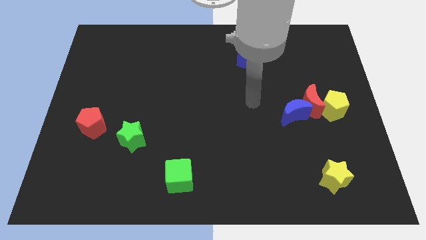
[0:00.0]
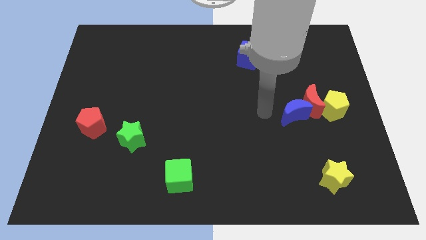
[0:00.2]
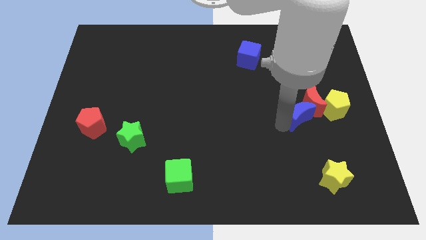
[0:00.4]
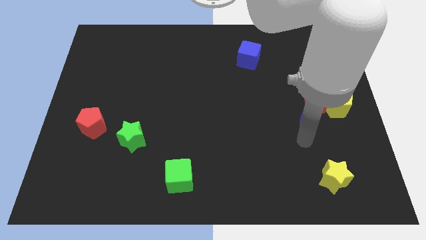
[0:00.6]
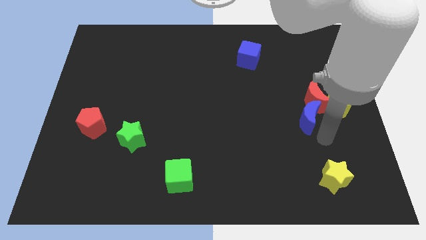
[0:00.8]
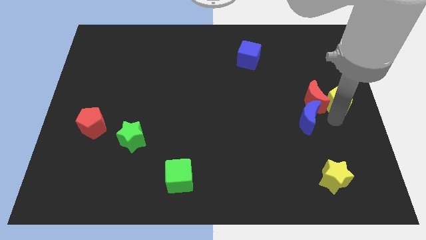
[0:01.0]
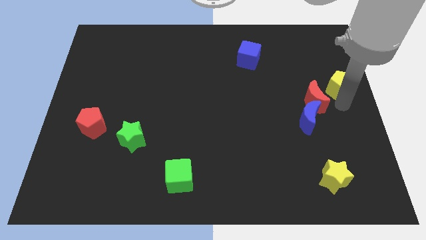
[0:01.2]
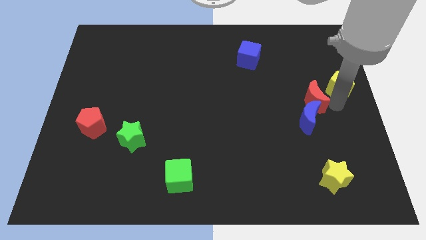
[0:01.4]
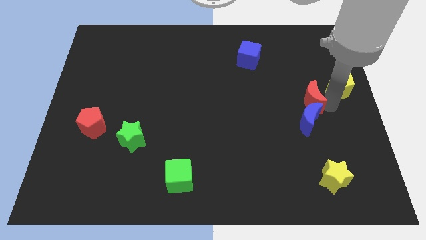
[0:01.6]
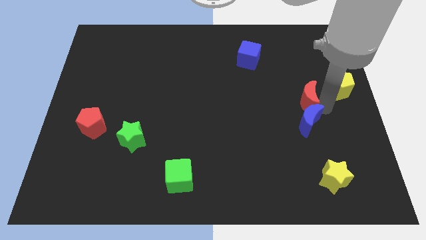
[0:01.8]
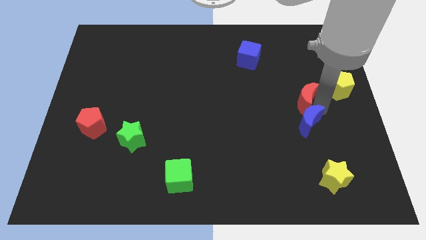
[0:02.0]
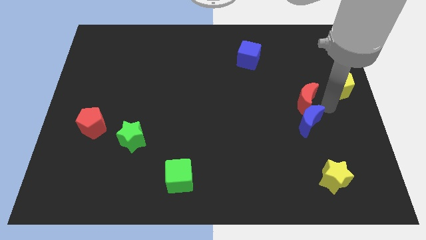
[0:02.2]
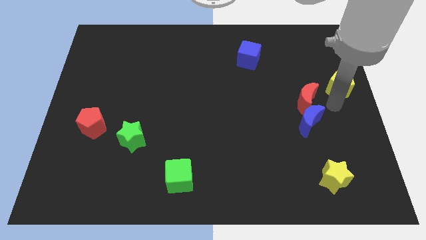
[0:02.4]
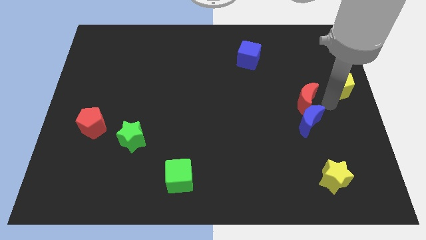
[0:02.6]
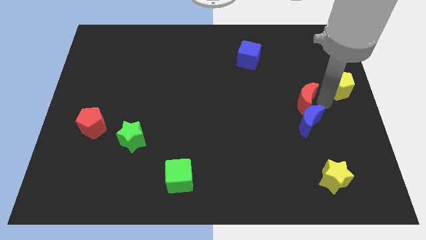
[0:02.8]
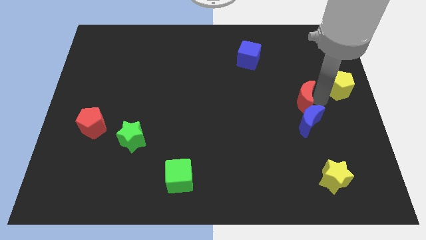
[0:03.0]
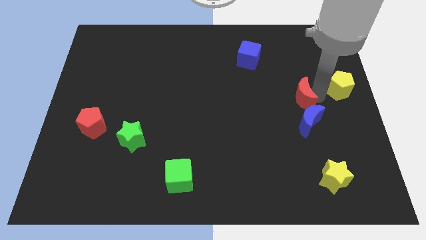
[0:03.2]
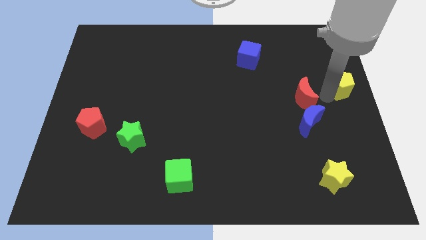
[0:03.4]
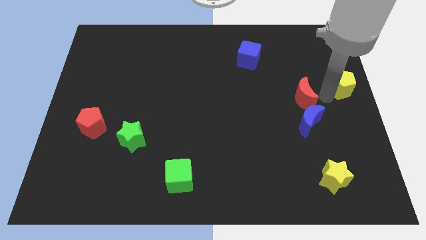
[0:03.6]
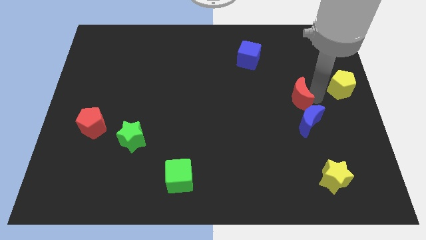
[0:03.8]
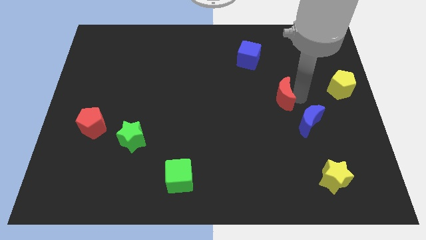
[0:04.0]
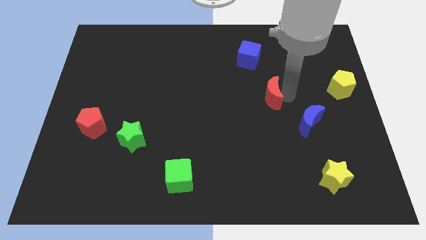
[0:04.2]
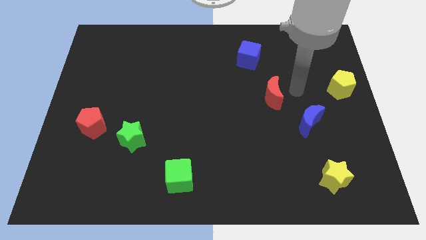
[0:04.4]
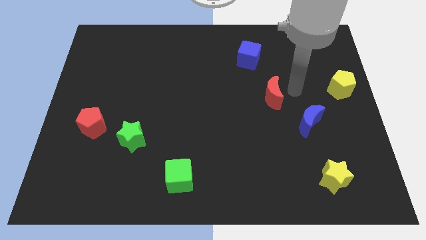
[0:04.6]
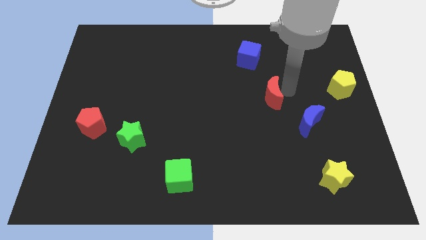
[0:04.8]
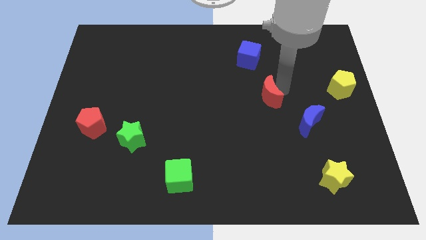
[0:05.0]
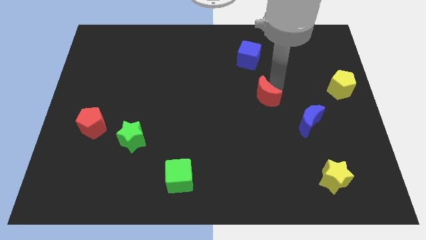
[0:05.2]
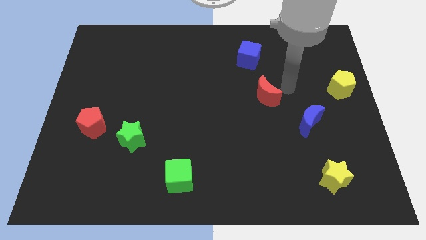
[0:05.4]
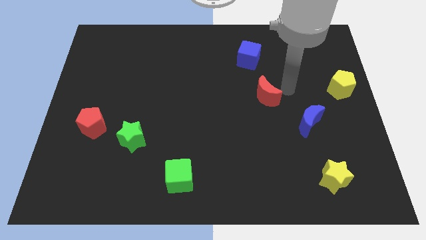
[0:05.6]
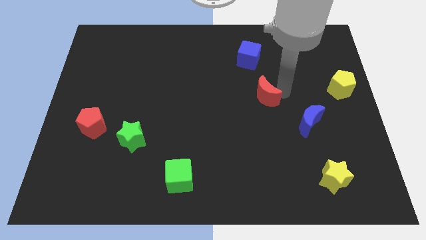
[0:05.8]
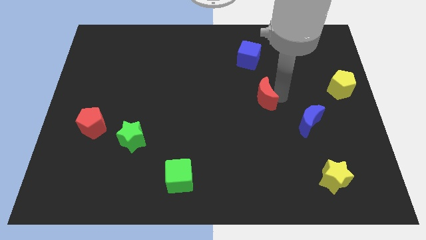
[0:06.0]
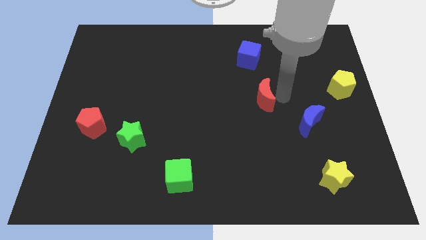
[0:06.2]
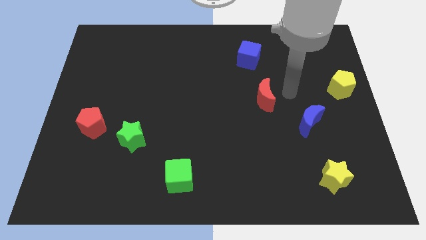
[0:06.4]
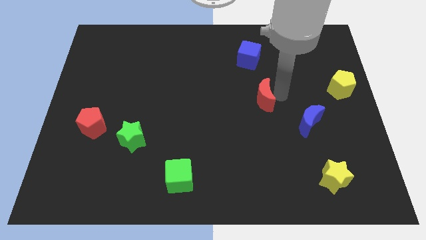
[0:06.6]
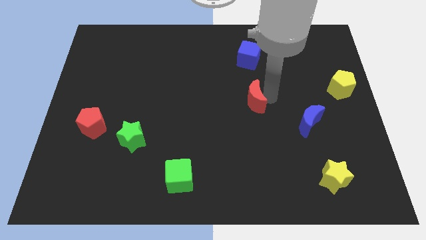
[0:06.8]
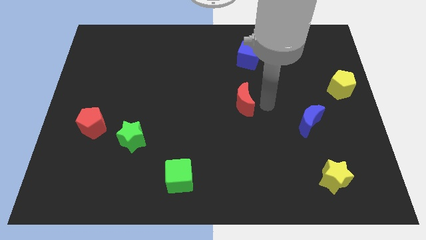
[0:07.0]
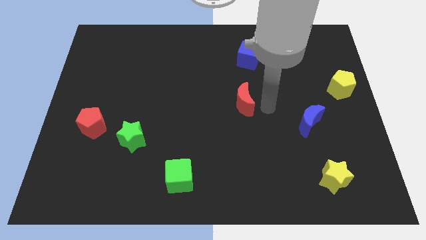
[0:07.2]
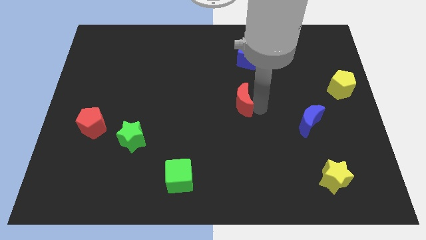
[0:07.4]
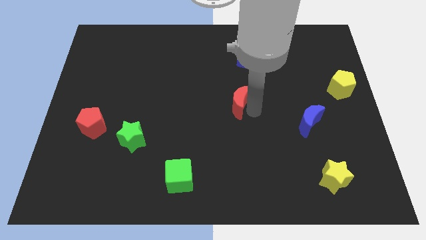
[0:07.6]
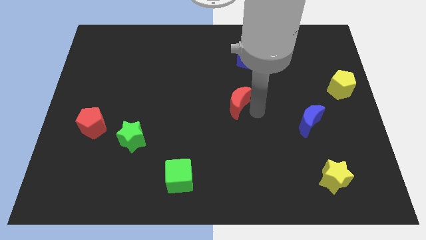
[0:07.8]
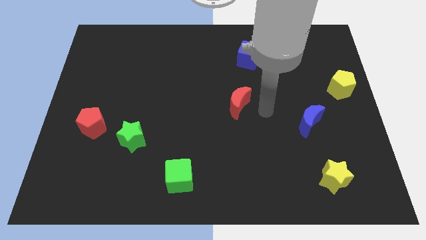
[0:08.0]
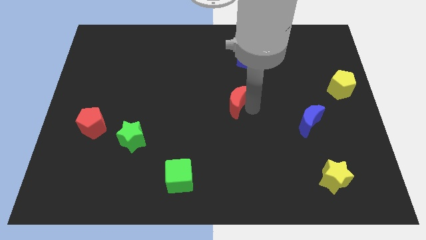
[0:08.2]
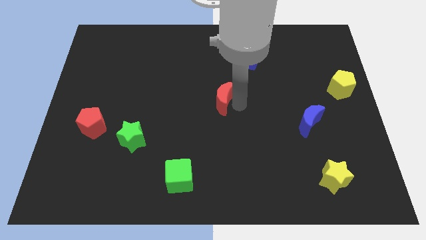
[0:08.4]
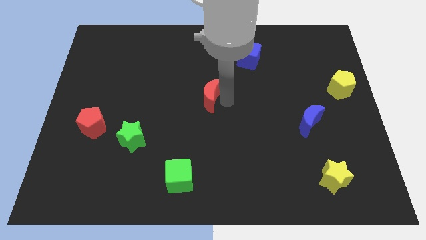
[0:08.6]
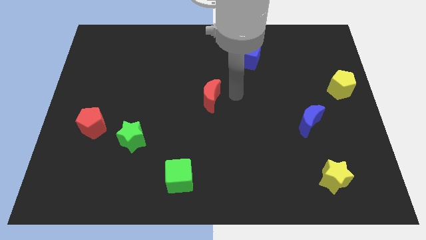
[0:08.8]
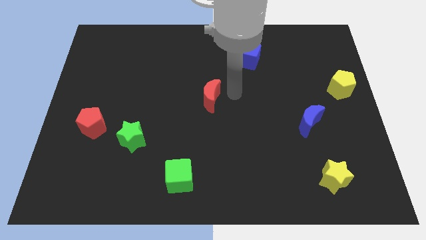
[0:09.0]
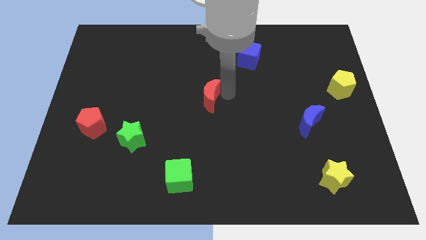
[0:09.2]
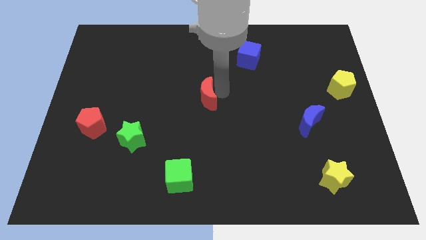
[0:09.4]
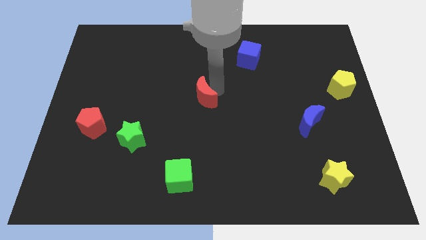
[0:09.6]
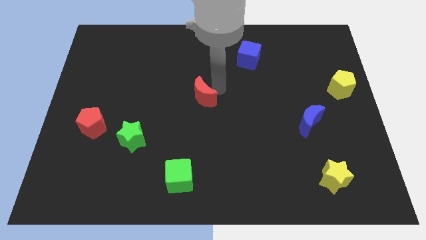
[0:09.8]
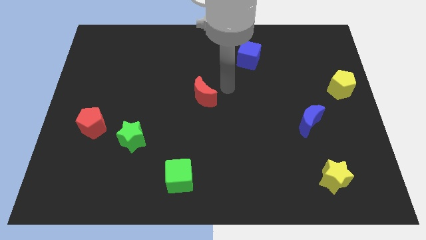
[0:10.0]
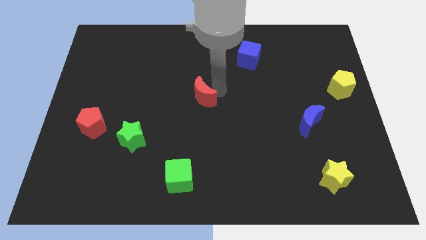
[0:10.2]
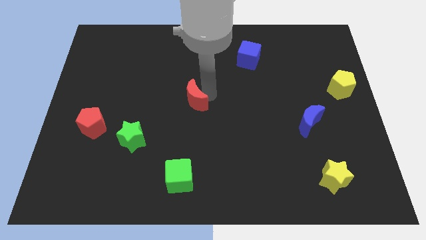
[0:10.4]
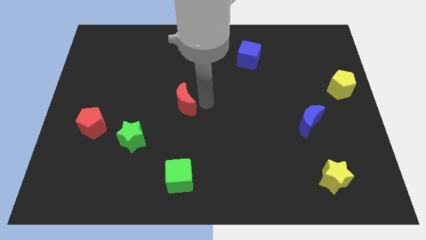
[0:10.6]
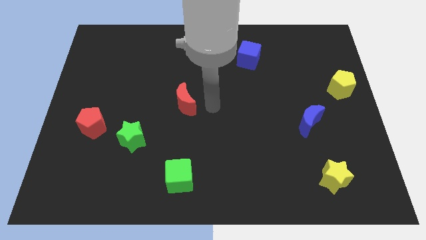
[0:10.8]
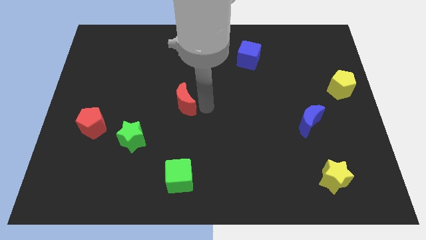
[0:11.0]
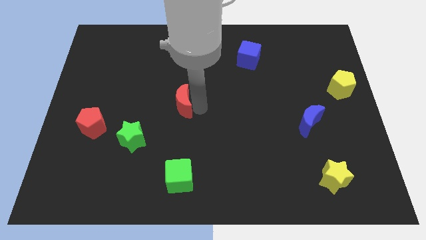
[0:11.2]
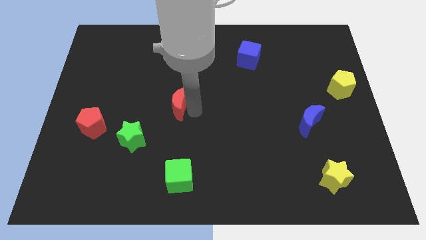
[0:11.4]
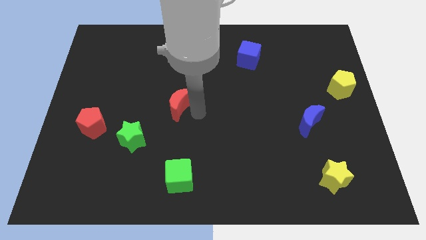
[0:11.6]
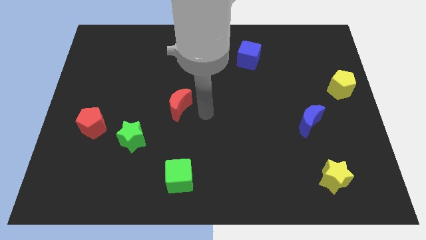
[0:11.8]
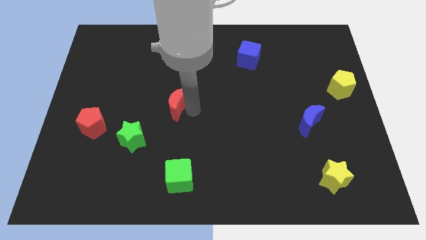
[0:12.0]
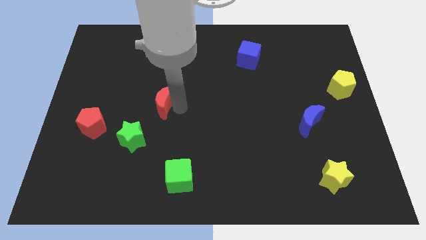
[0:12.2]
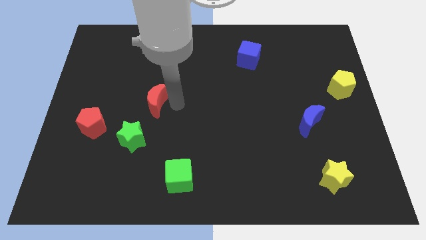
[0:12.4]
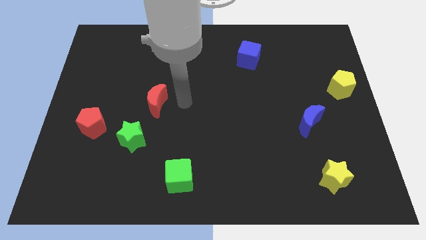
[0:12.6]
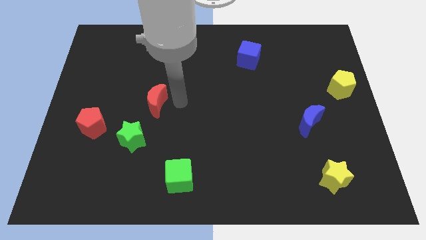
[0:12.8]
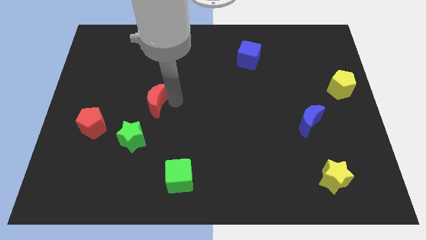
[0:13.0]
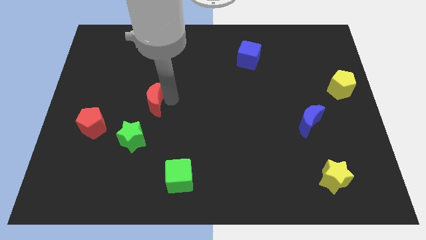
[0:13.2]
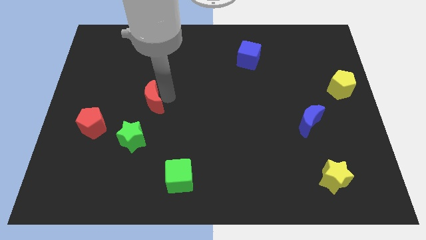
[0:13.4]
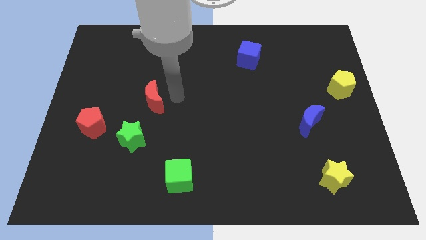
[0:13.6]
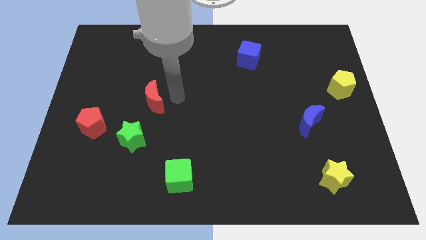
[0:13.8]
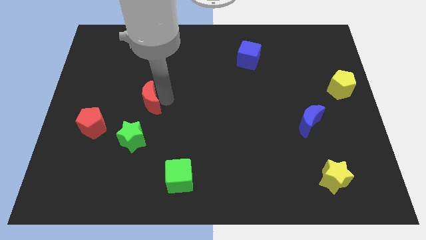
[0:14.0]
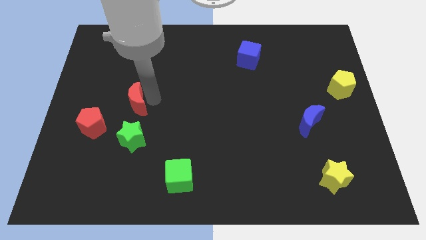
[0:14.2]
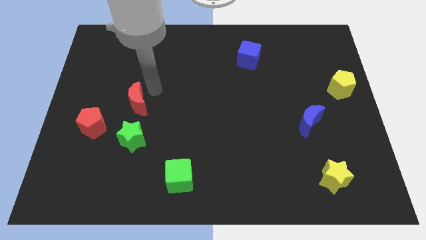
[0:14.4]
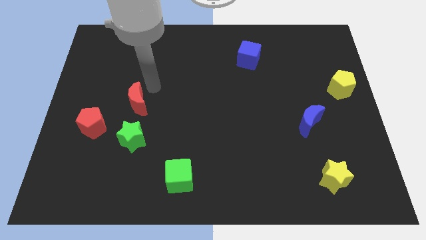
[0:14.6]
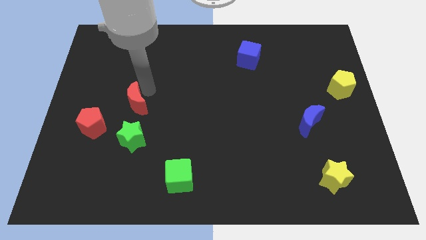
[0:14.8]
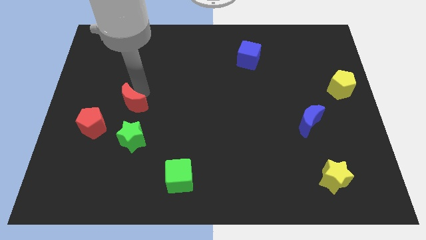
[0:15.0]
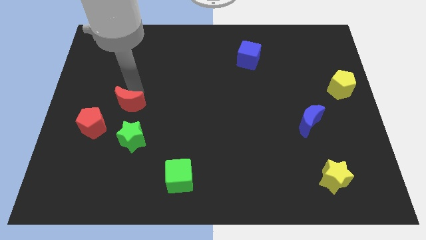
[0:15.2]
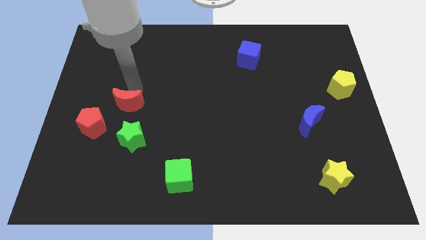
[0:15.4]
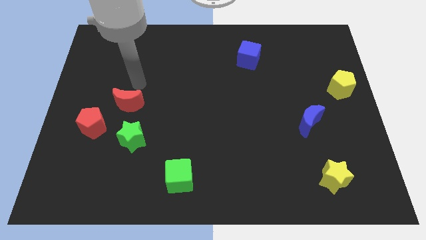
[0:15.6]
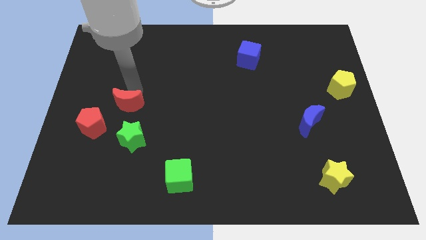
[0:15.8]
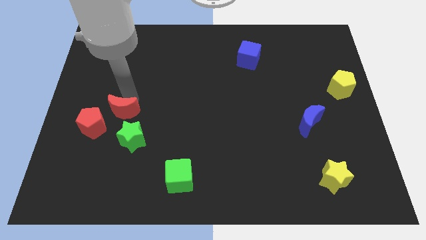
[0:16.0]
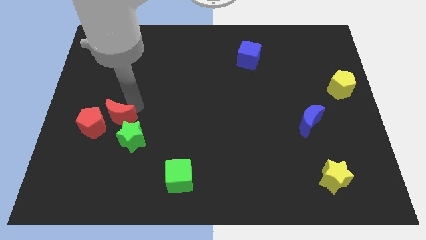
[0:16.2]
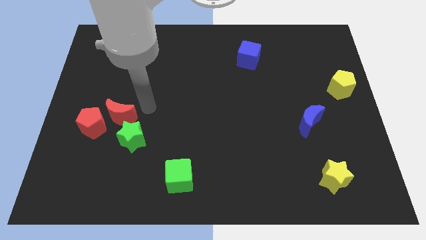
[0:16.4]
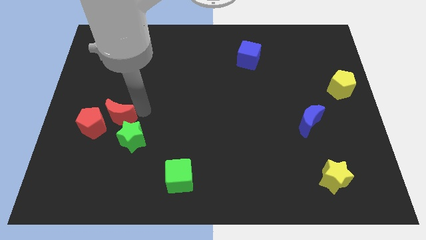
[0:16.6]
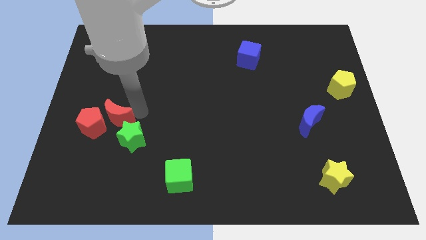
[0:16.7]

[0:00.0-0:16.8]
put the red moon next to the red pentagon
